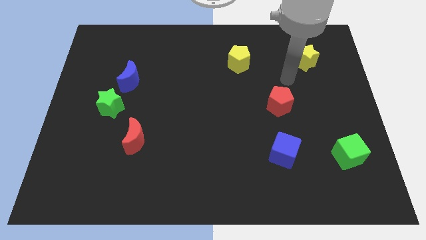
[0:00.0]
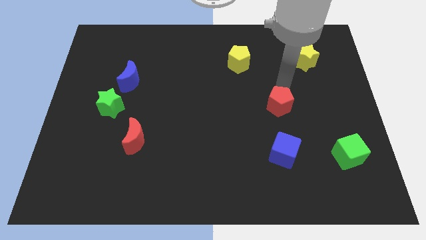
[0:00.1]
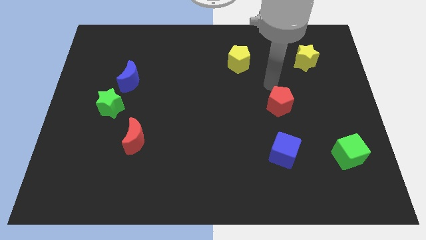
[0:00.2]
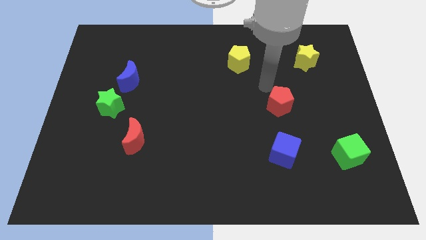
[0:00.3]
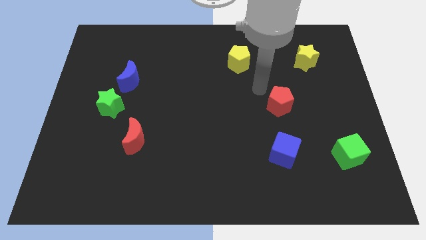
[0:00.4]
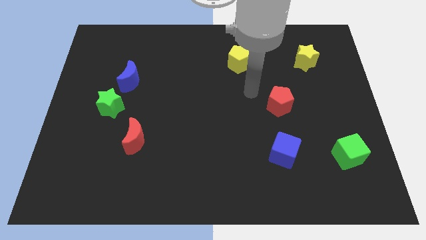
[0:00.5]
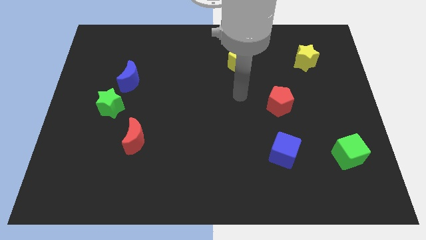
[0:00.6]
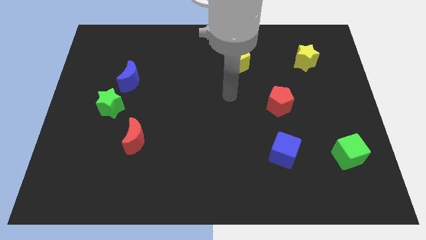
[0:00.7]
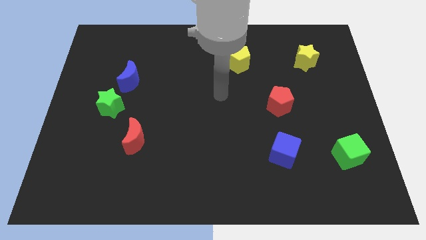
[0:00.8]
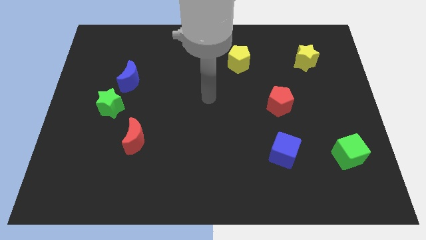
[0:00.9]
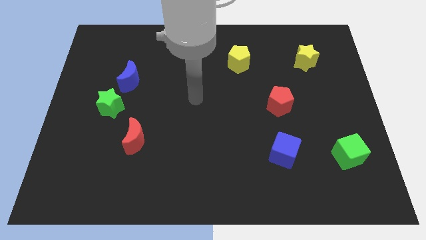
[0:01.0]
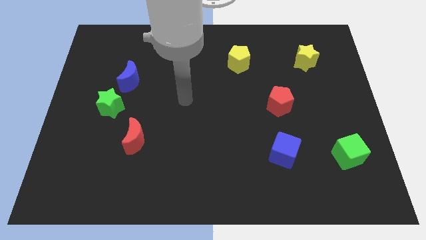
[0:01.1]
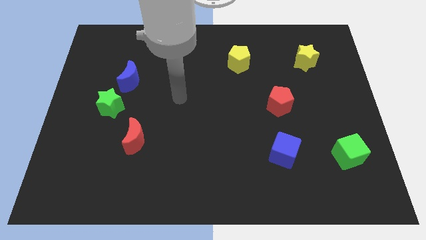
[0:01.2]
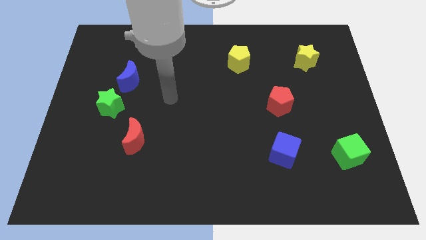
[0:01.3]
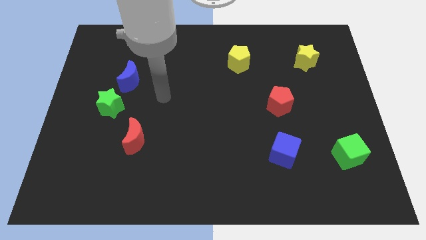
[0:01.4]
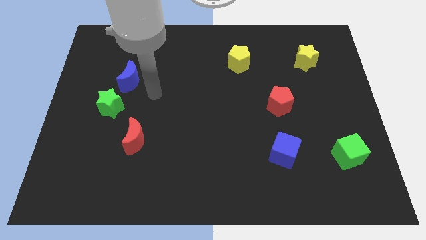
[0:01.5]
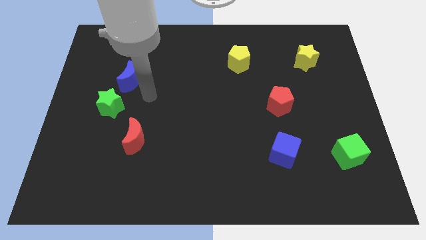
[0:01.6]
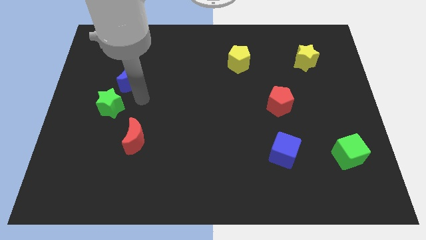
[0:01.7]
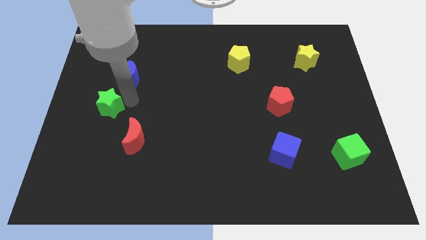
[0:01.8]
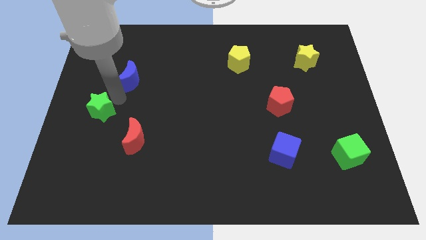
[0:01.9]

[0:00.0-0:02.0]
separate the blue moon from the green star

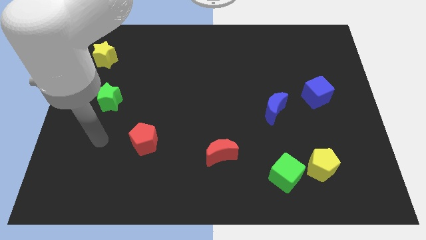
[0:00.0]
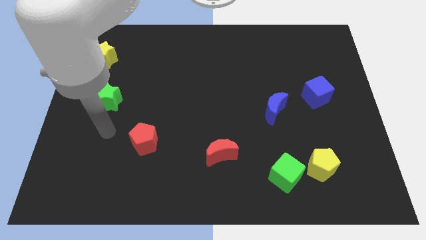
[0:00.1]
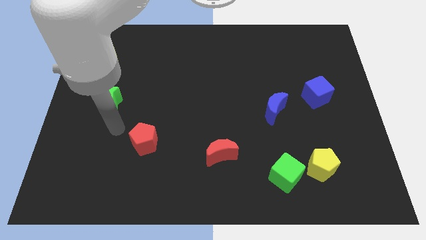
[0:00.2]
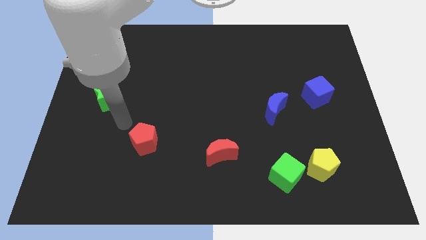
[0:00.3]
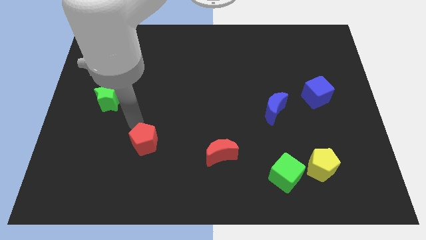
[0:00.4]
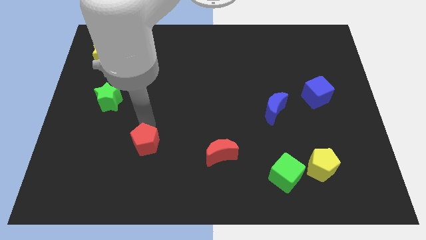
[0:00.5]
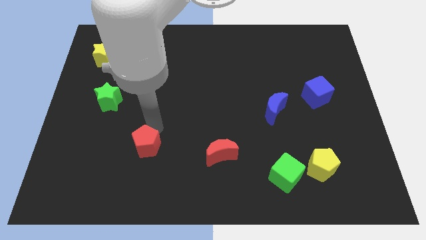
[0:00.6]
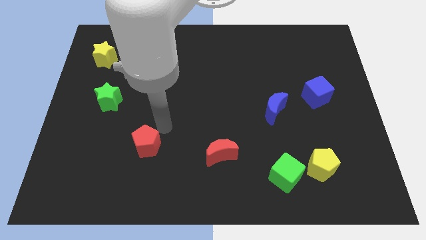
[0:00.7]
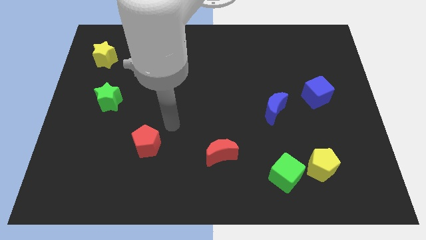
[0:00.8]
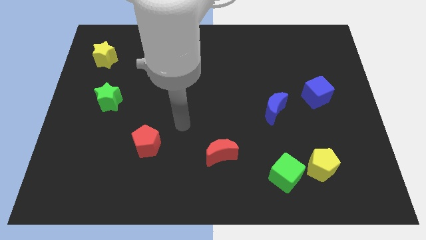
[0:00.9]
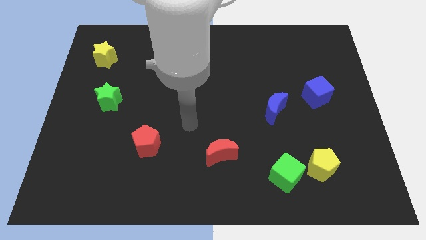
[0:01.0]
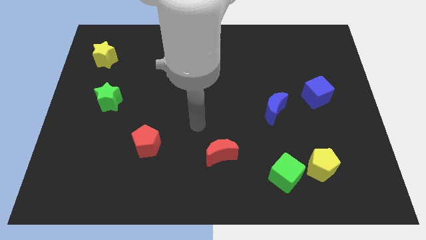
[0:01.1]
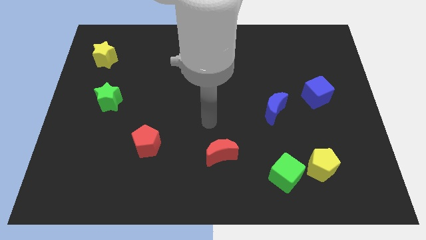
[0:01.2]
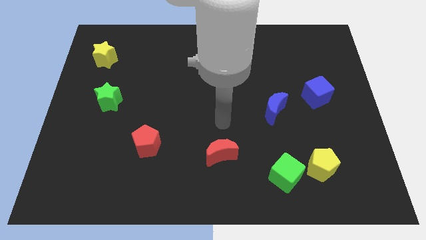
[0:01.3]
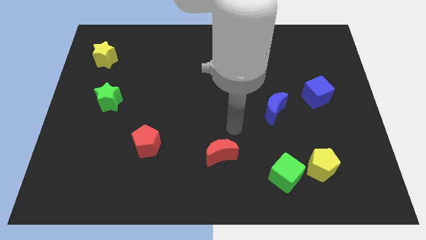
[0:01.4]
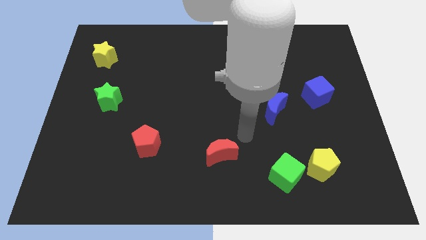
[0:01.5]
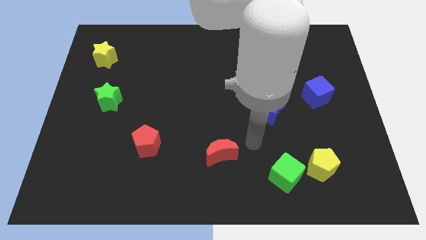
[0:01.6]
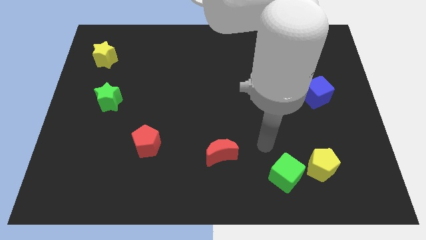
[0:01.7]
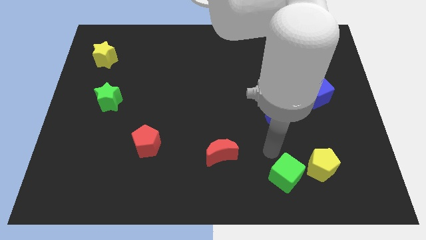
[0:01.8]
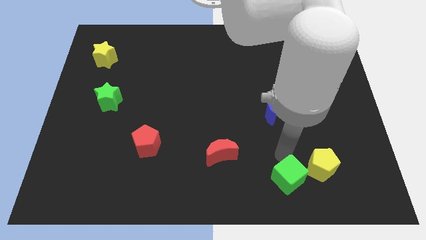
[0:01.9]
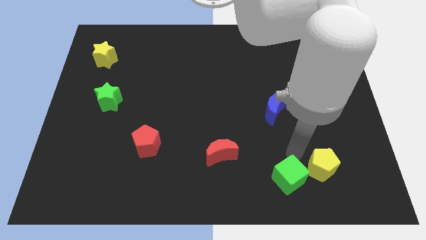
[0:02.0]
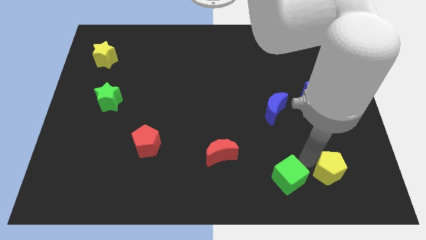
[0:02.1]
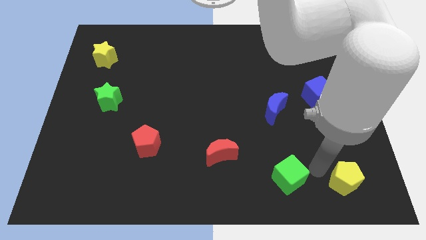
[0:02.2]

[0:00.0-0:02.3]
pull the green cube apart from the yellow pentagon

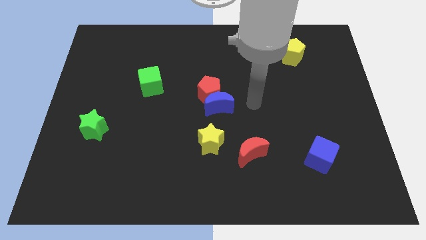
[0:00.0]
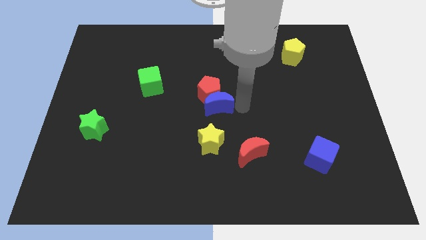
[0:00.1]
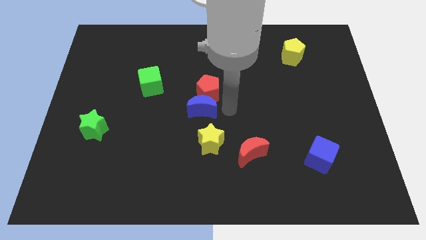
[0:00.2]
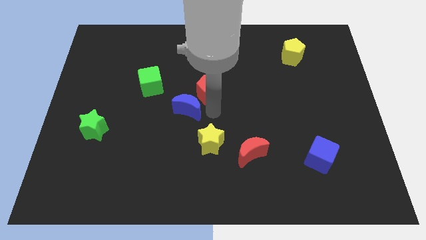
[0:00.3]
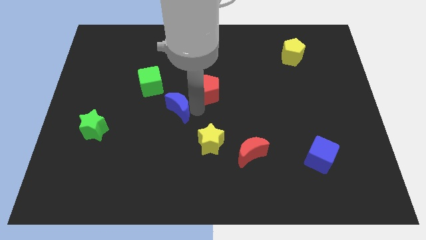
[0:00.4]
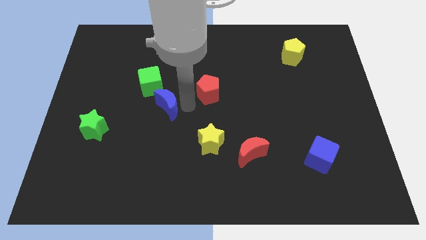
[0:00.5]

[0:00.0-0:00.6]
pull the red pentagon apart from the blue moon

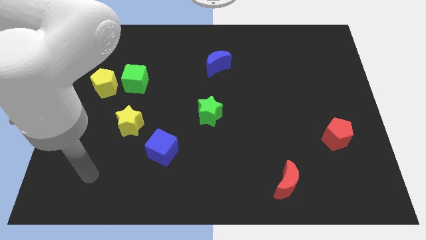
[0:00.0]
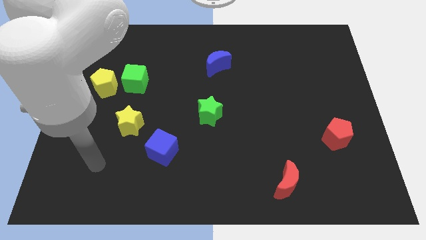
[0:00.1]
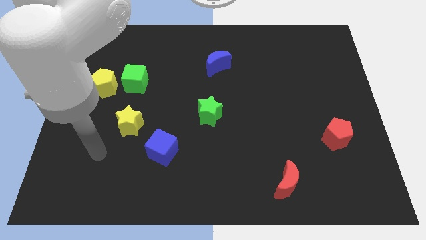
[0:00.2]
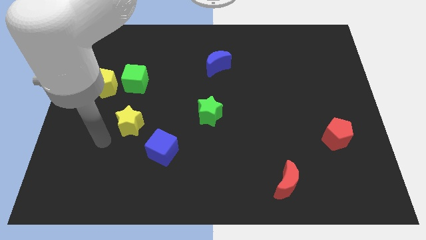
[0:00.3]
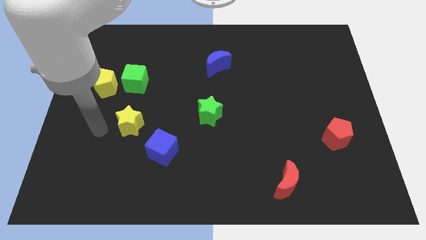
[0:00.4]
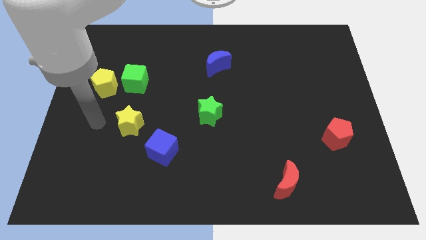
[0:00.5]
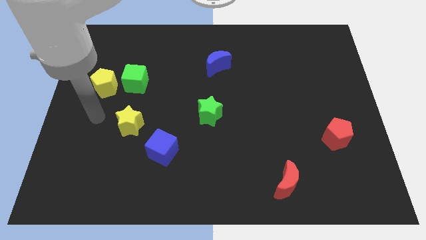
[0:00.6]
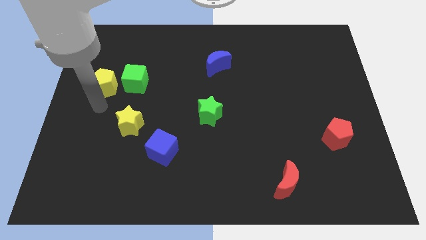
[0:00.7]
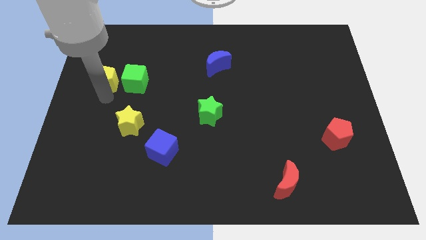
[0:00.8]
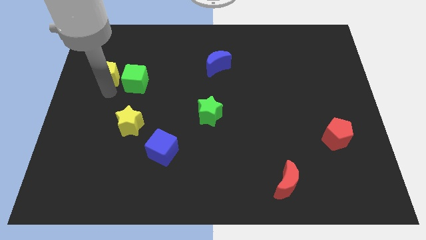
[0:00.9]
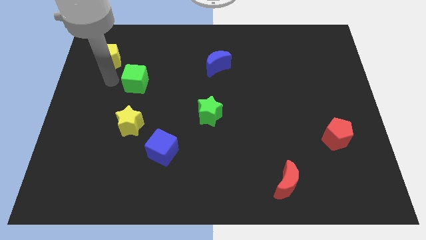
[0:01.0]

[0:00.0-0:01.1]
separate the green cube from the yellow pentagon

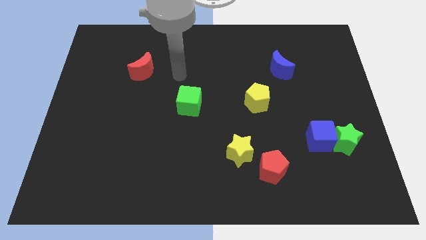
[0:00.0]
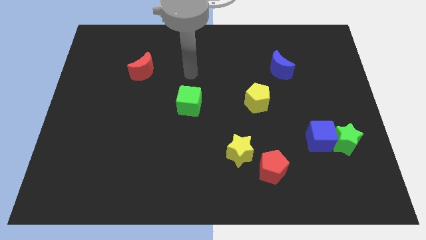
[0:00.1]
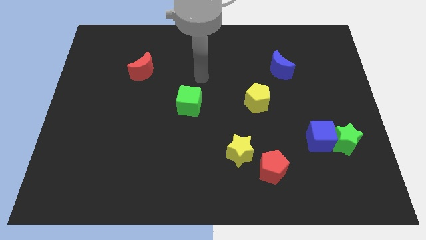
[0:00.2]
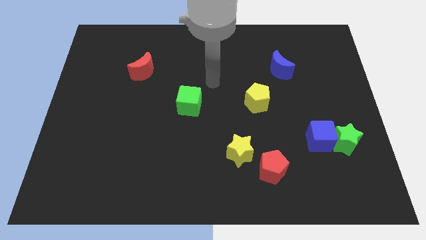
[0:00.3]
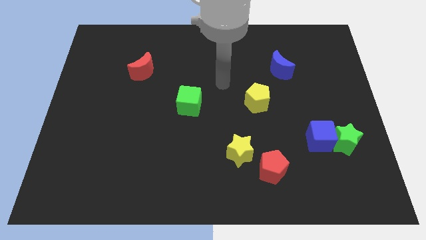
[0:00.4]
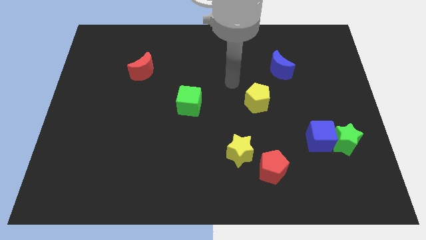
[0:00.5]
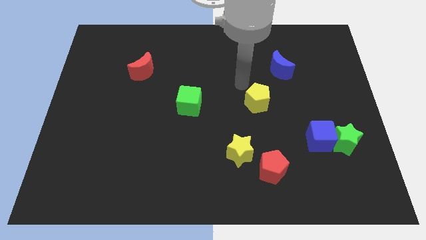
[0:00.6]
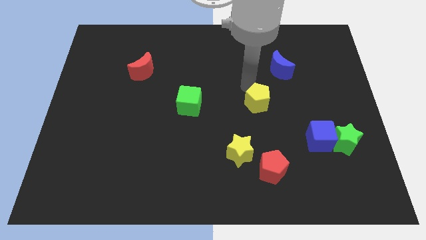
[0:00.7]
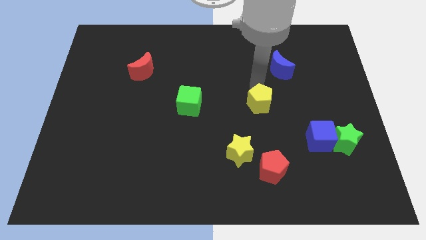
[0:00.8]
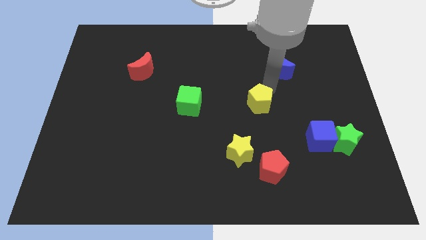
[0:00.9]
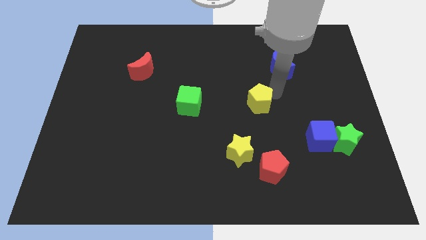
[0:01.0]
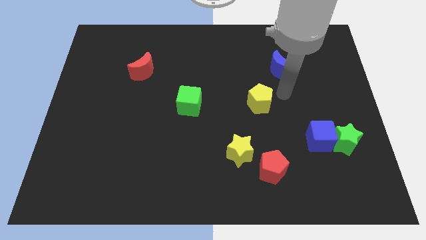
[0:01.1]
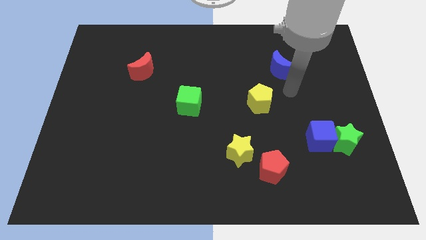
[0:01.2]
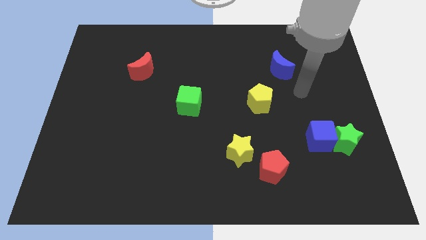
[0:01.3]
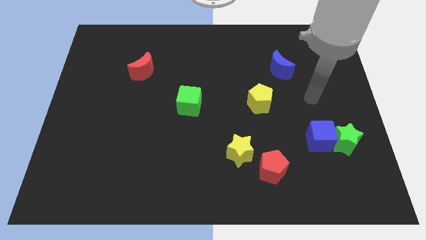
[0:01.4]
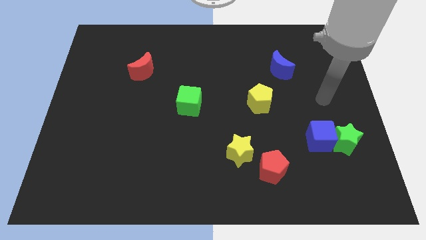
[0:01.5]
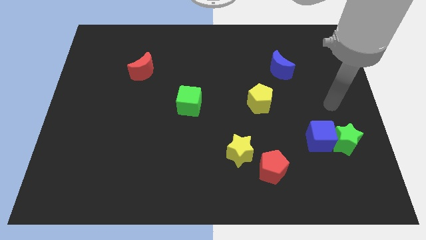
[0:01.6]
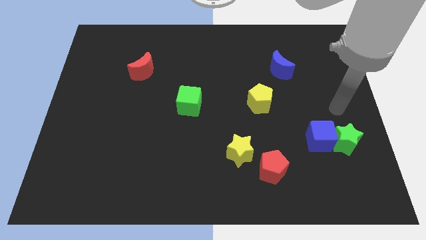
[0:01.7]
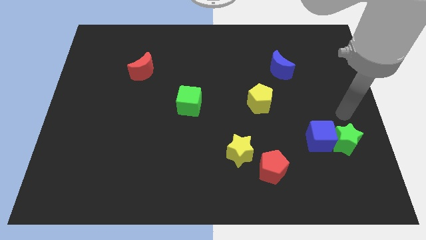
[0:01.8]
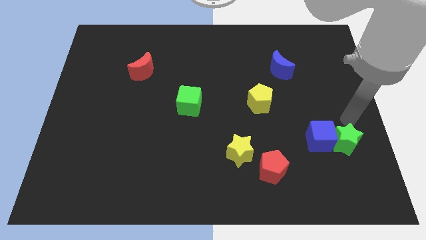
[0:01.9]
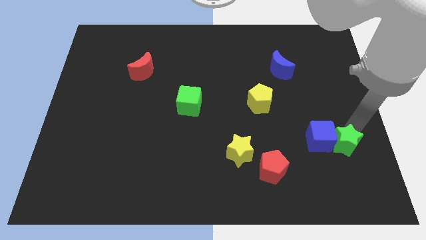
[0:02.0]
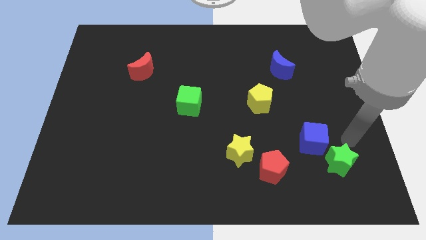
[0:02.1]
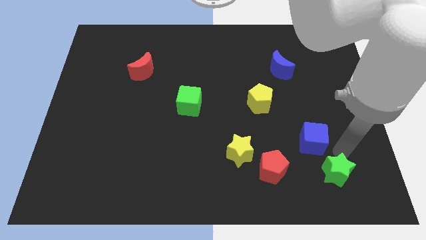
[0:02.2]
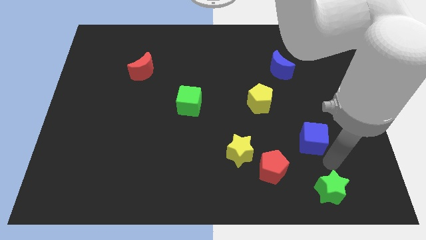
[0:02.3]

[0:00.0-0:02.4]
move the blue cube away from the green star

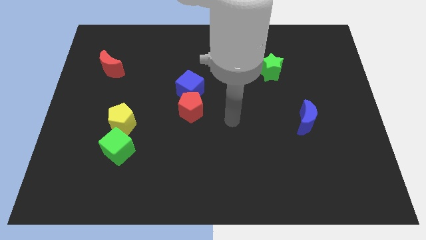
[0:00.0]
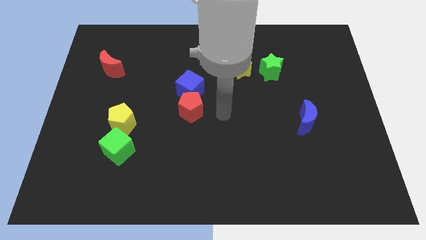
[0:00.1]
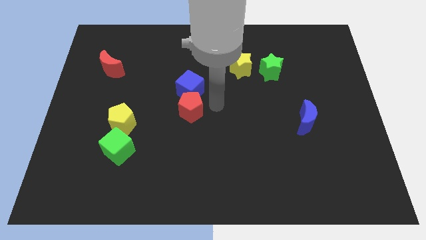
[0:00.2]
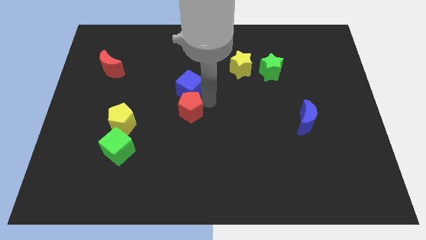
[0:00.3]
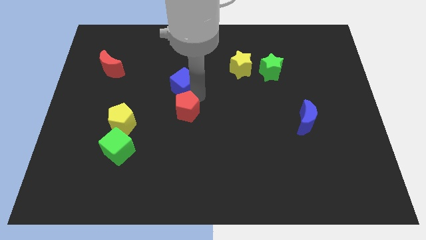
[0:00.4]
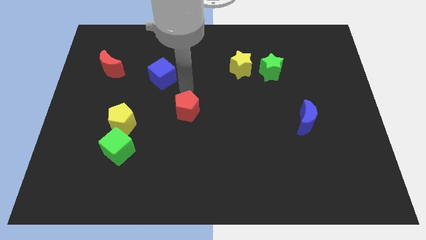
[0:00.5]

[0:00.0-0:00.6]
move the red pentagon away from the blue cube

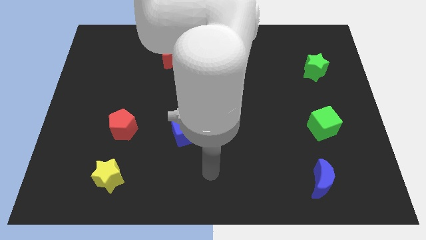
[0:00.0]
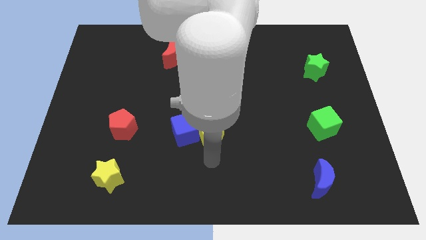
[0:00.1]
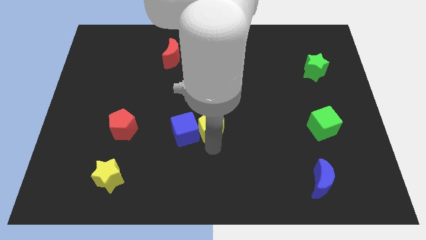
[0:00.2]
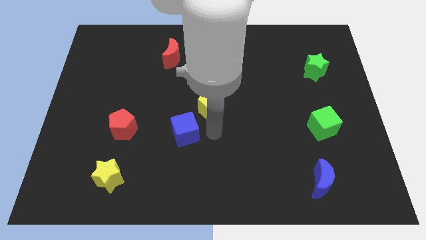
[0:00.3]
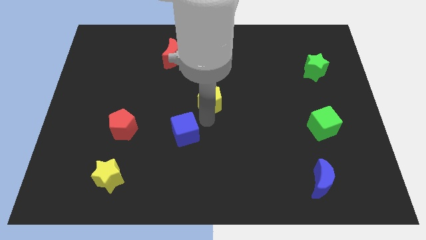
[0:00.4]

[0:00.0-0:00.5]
separate the blue cube from the yellow pentagon
